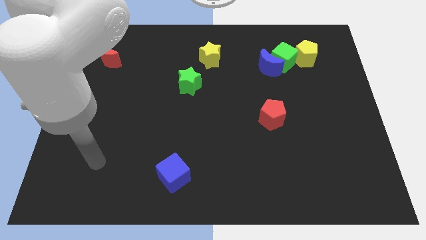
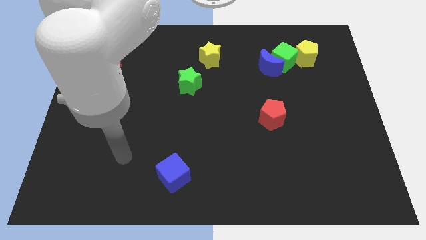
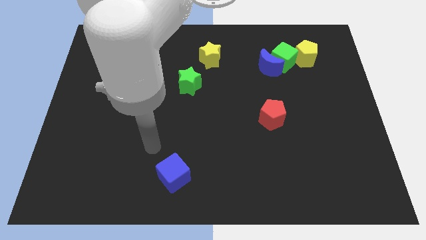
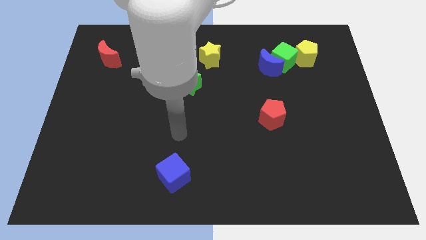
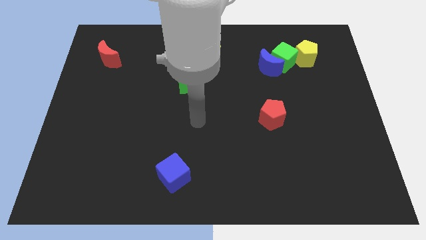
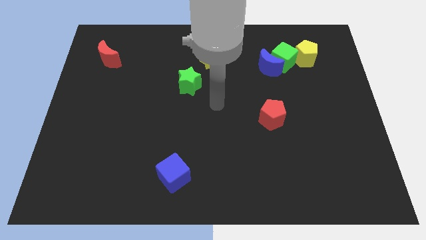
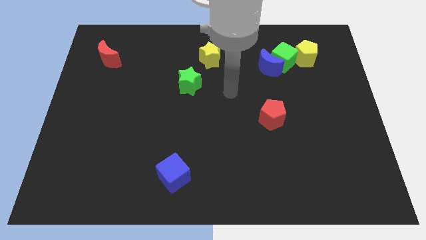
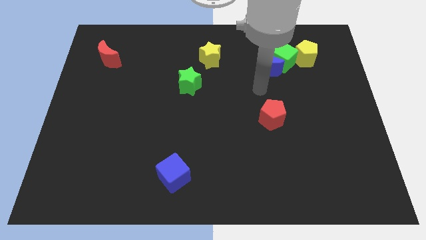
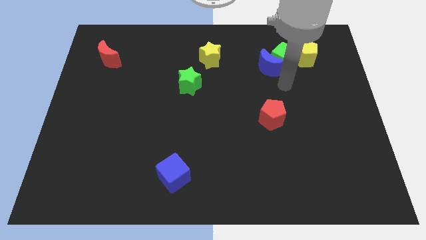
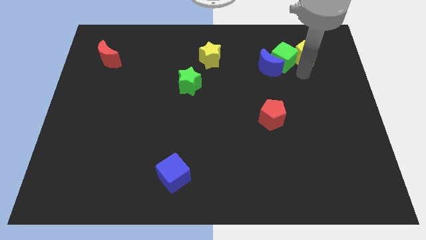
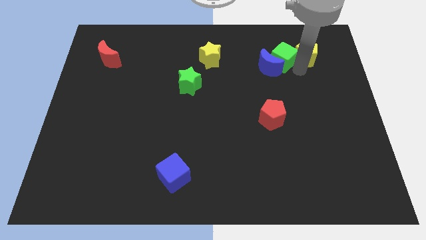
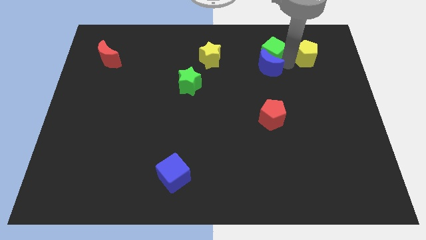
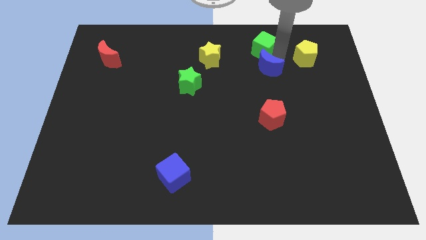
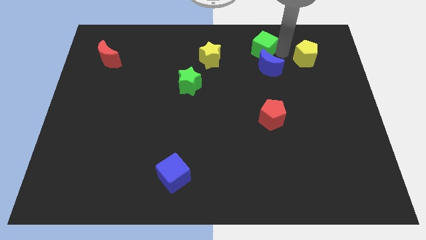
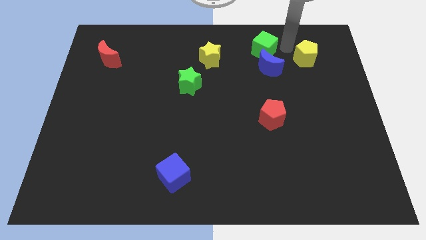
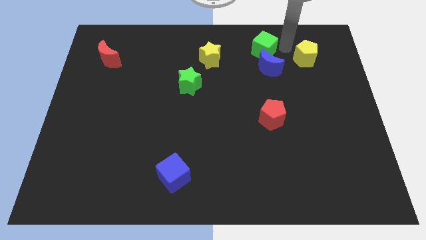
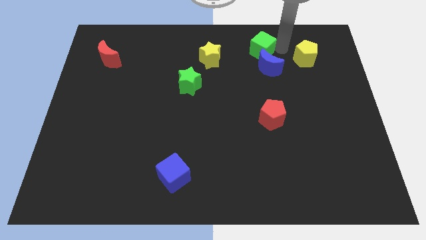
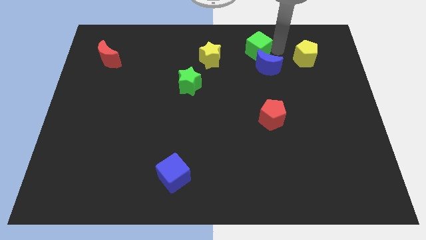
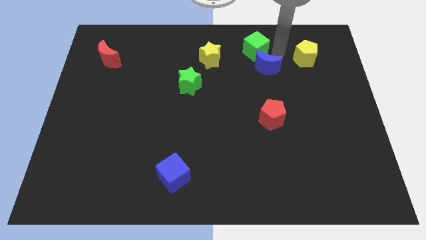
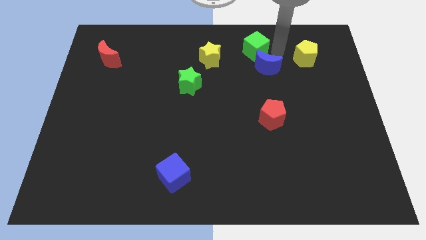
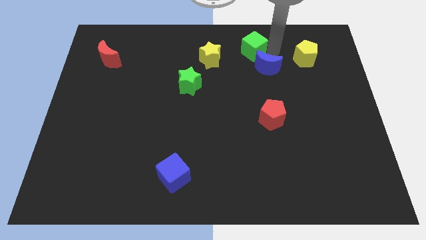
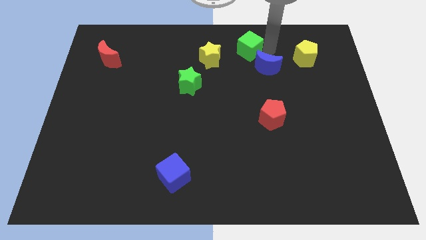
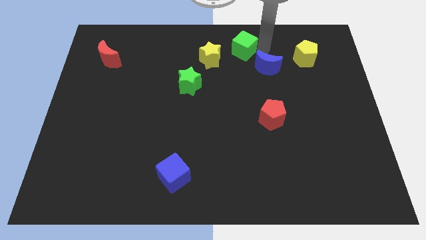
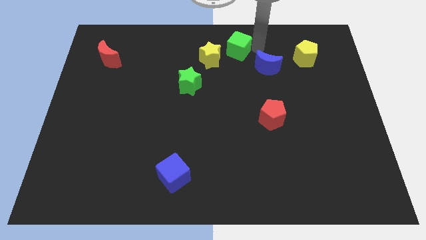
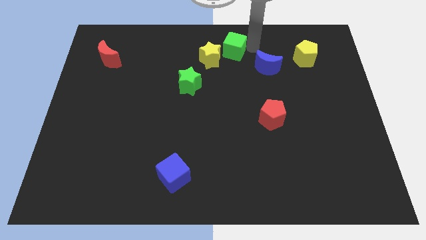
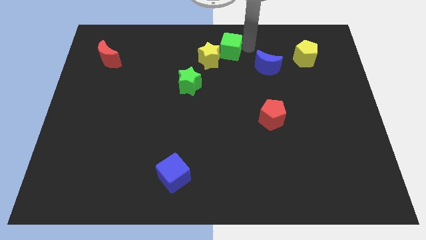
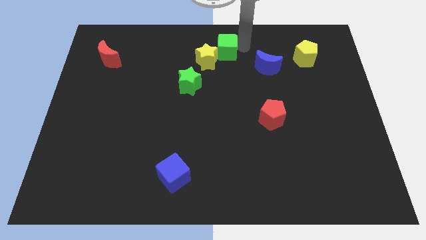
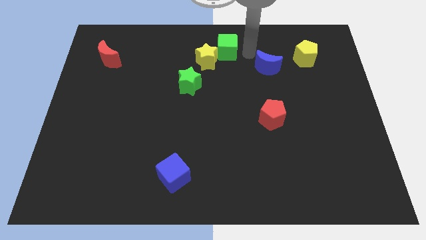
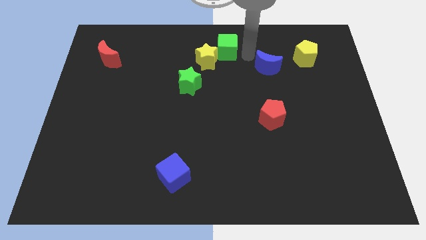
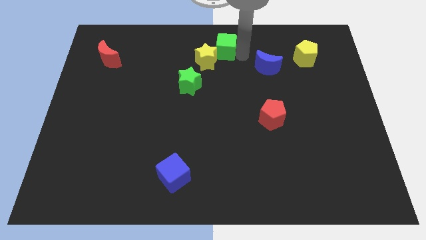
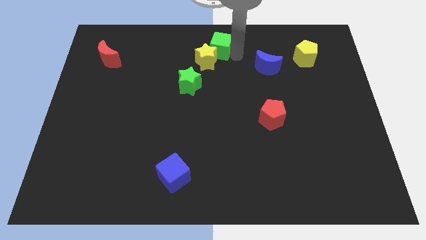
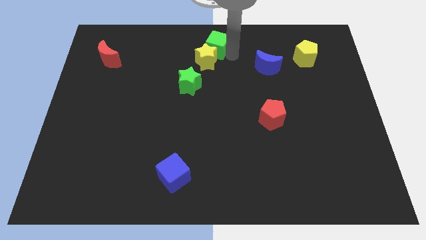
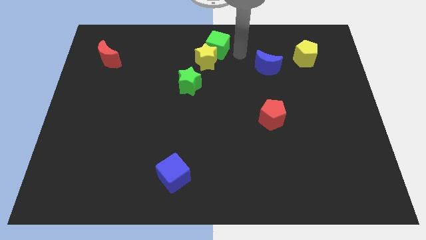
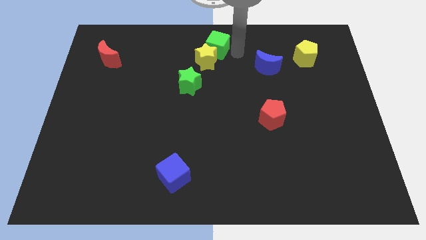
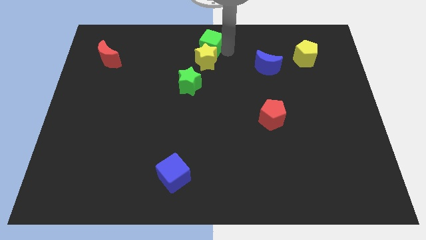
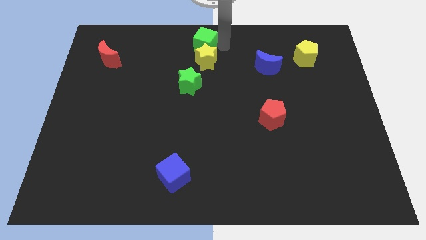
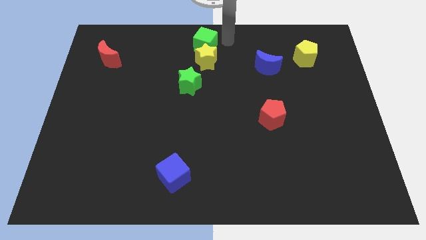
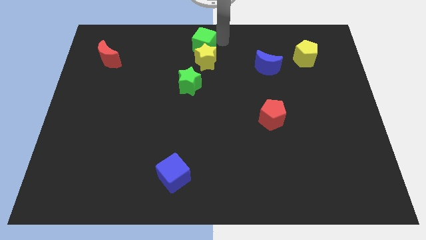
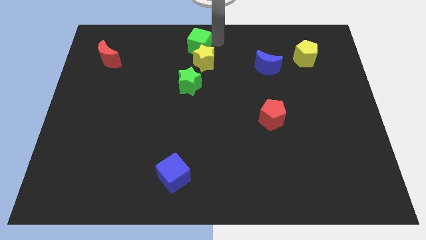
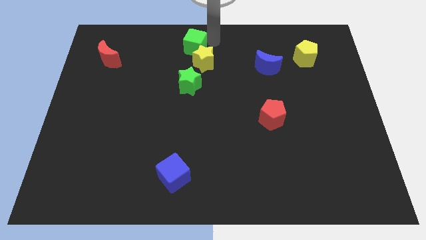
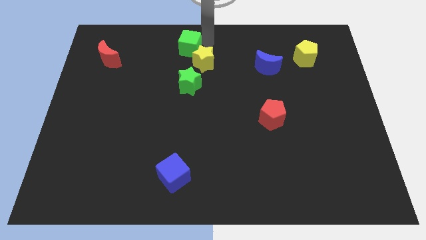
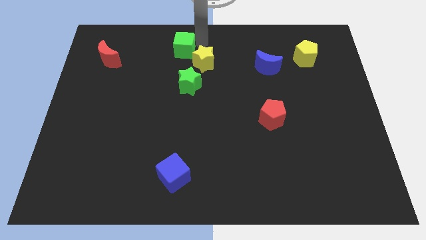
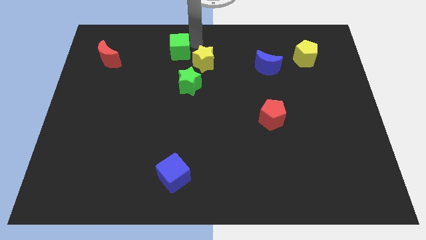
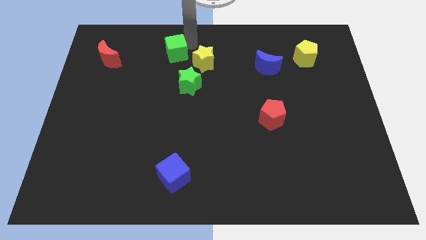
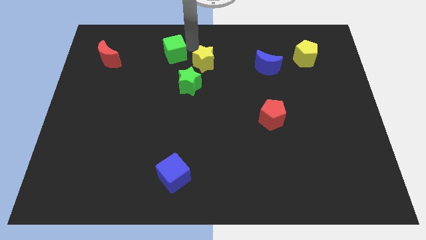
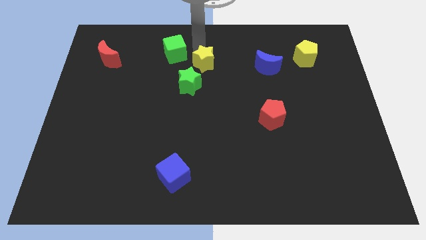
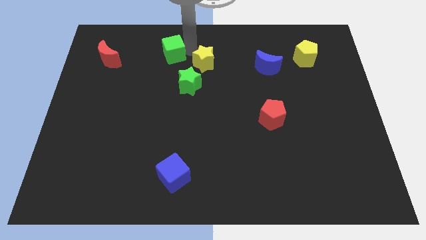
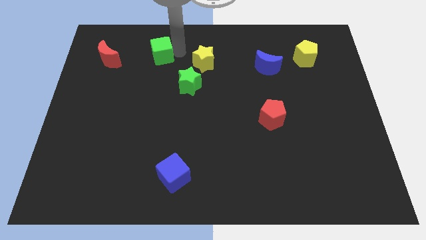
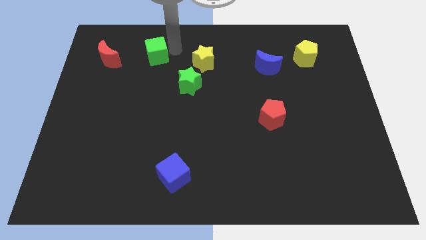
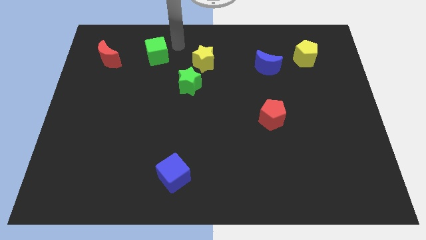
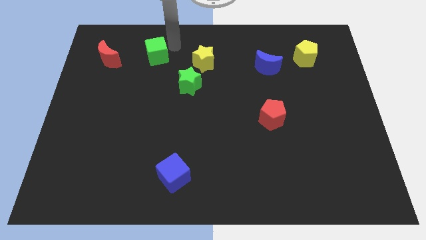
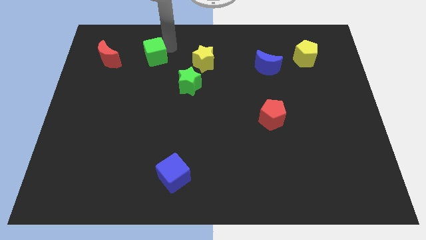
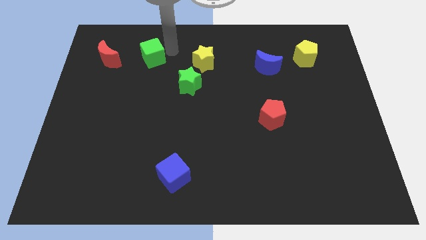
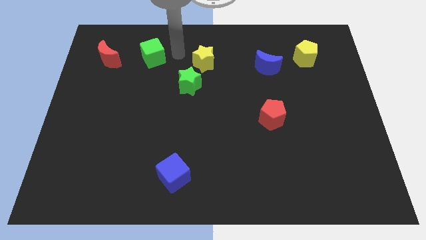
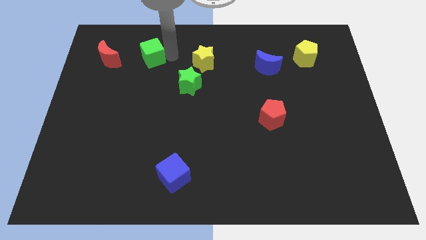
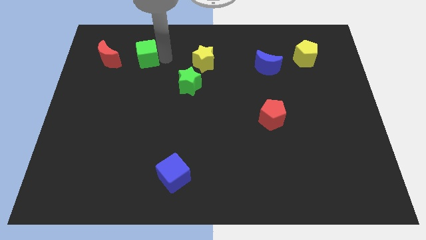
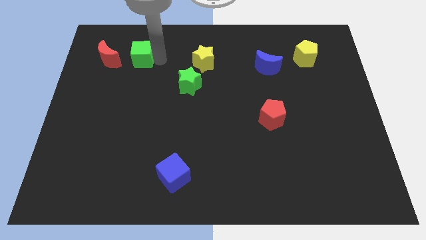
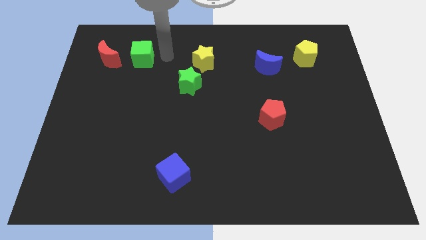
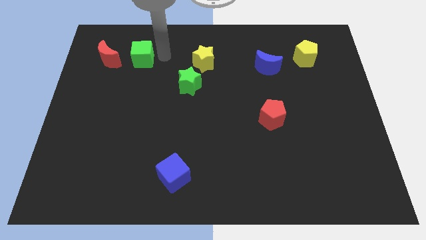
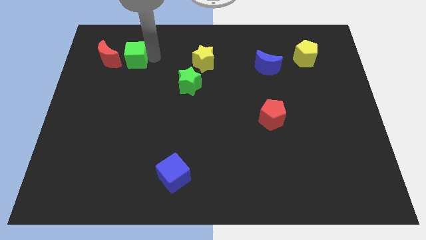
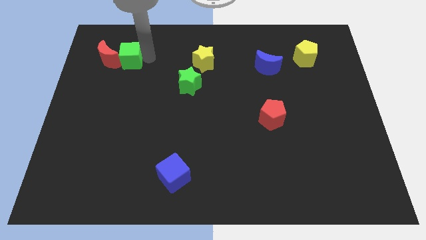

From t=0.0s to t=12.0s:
move the green cube towards the red moon
